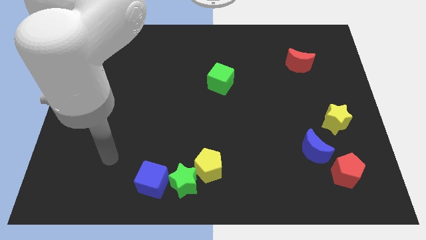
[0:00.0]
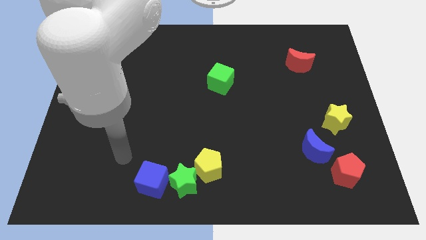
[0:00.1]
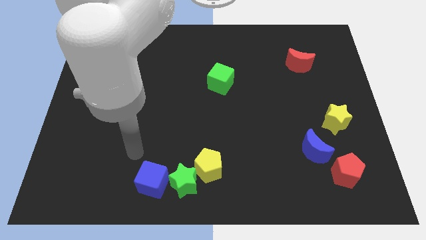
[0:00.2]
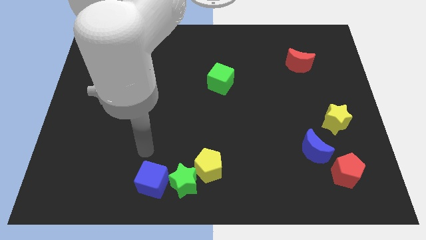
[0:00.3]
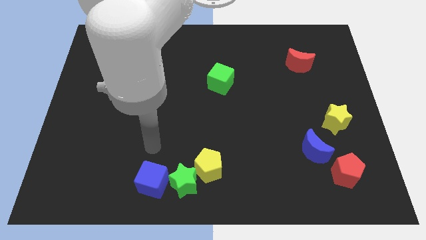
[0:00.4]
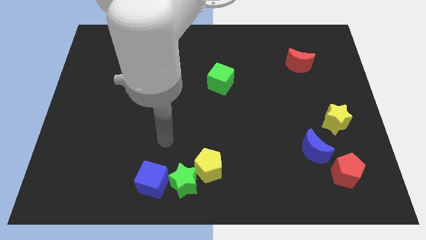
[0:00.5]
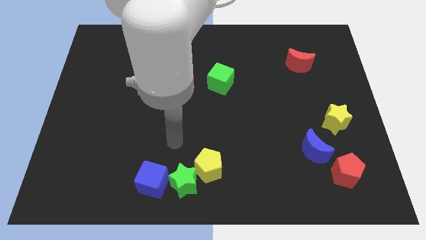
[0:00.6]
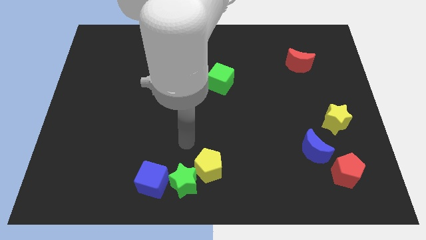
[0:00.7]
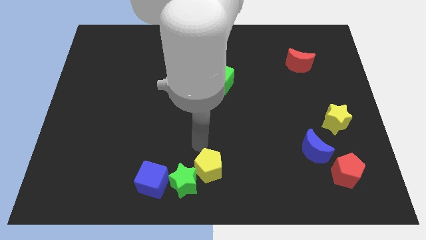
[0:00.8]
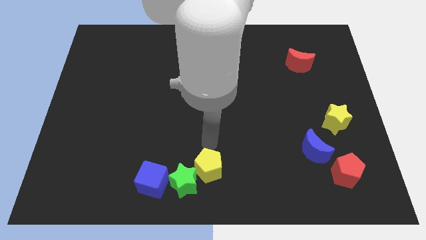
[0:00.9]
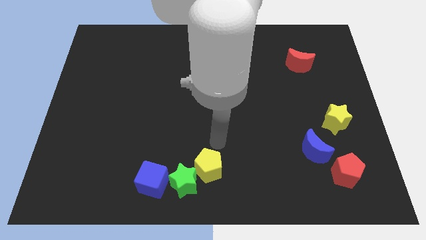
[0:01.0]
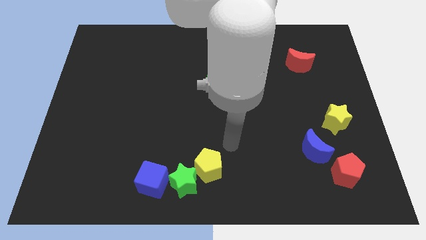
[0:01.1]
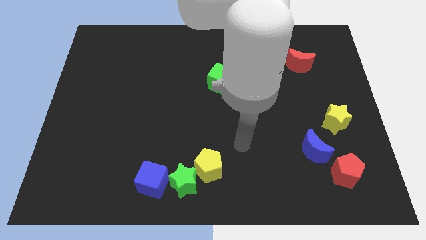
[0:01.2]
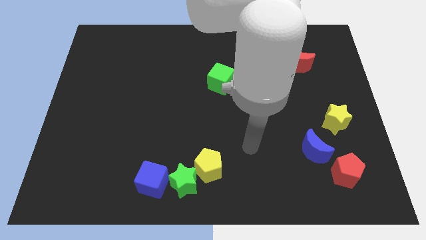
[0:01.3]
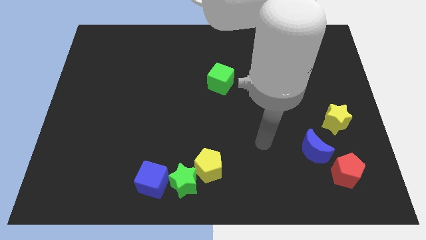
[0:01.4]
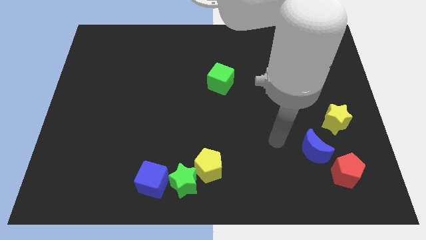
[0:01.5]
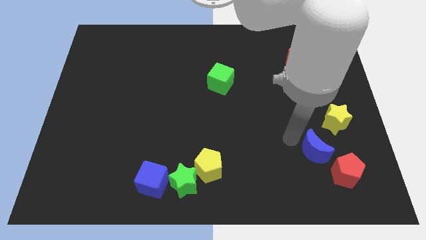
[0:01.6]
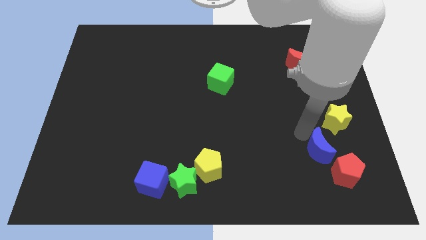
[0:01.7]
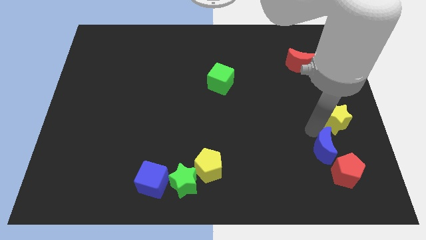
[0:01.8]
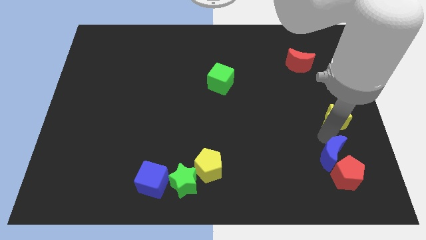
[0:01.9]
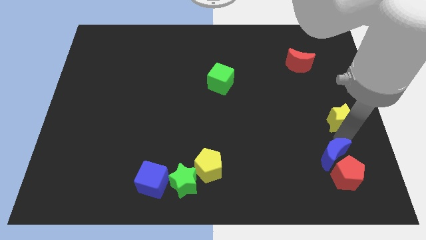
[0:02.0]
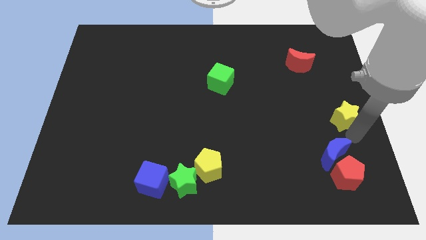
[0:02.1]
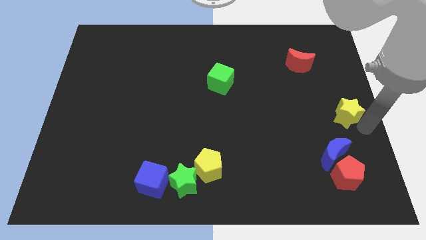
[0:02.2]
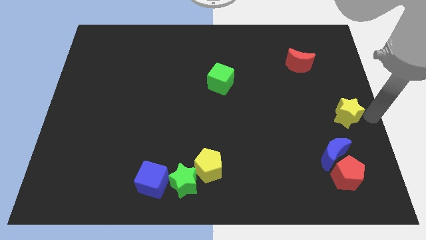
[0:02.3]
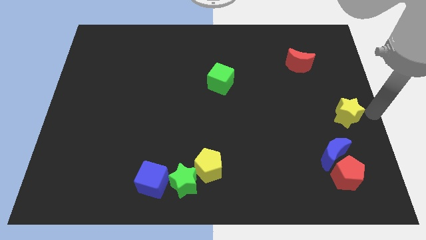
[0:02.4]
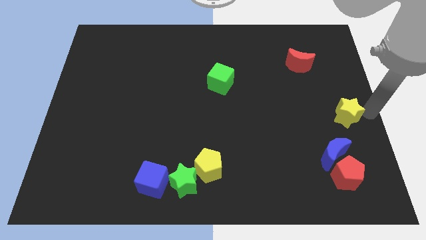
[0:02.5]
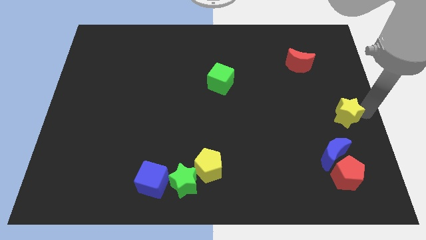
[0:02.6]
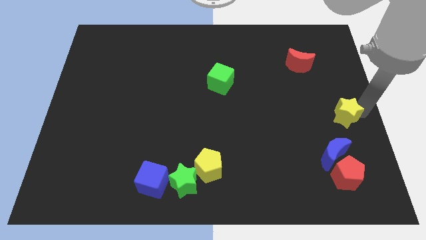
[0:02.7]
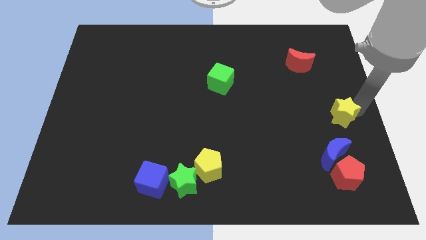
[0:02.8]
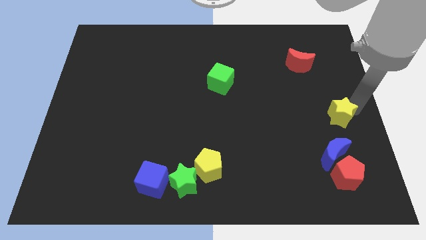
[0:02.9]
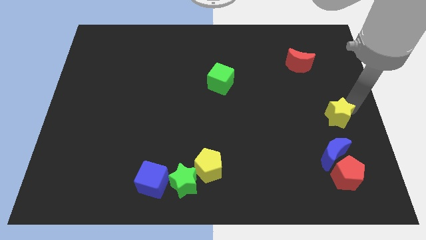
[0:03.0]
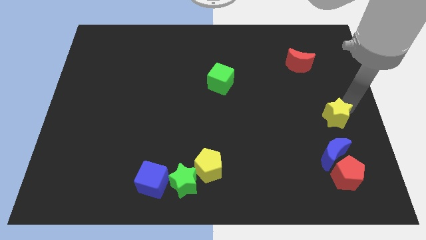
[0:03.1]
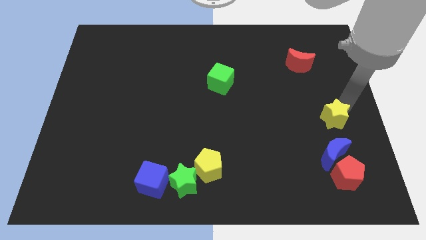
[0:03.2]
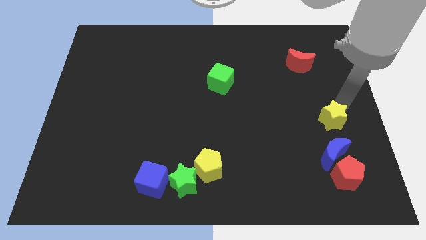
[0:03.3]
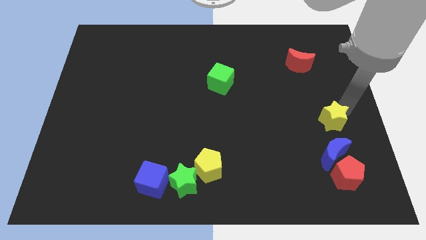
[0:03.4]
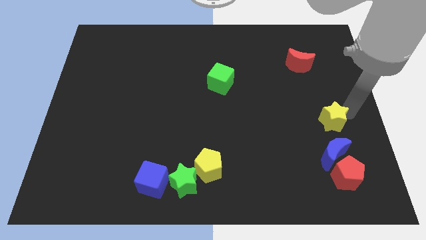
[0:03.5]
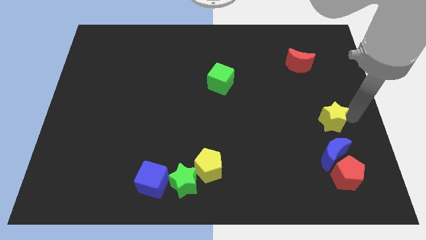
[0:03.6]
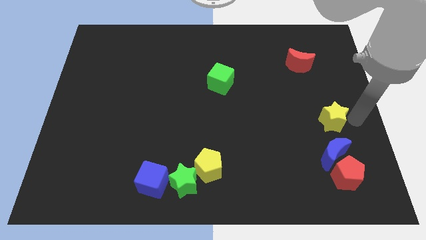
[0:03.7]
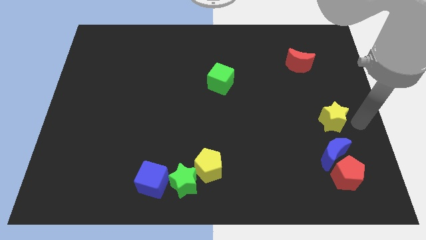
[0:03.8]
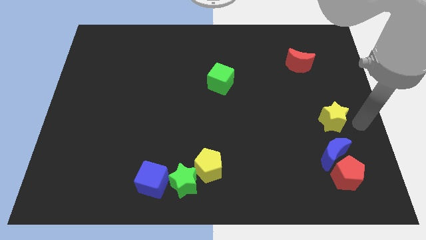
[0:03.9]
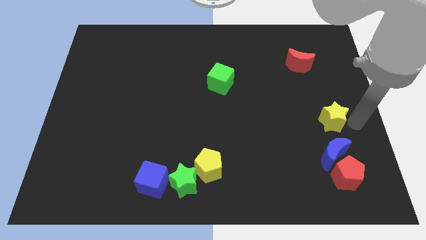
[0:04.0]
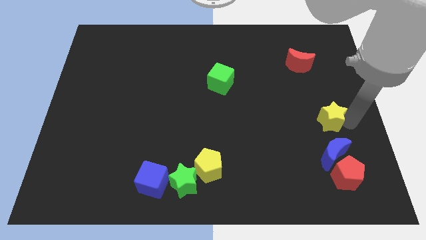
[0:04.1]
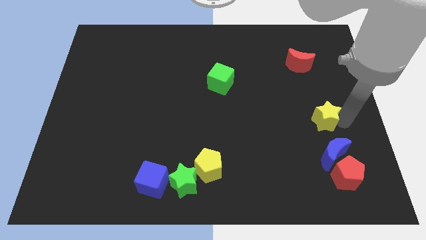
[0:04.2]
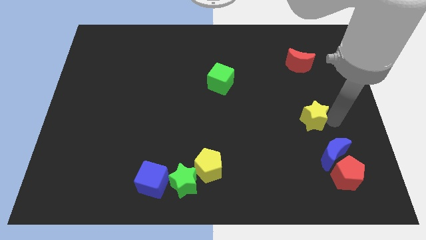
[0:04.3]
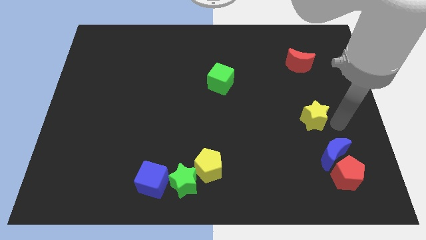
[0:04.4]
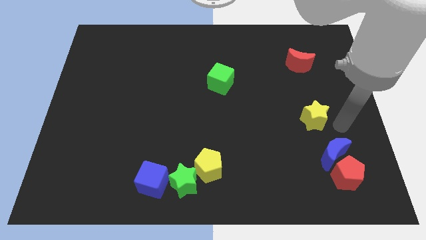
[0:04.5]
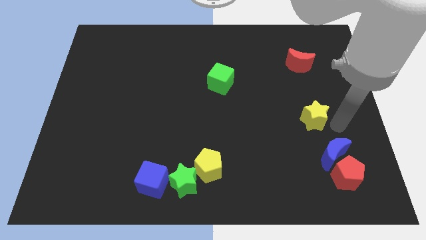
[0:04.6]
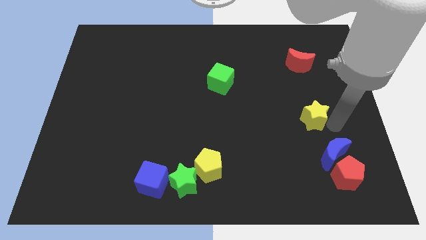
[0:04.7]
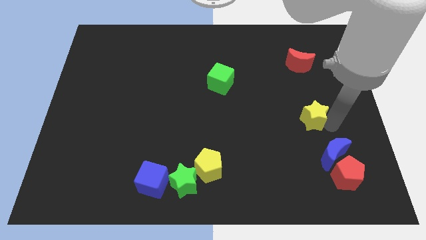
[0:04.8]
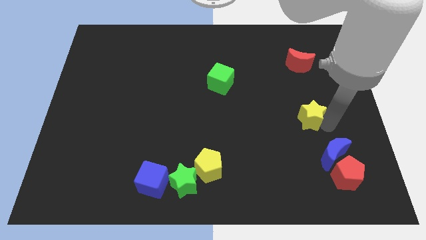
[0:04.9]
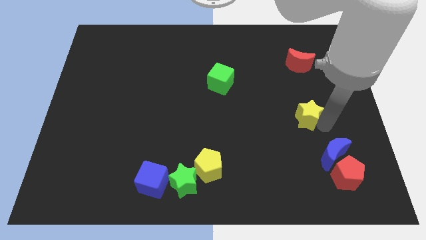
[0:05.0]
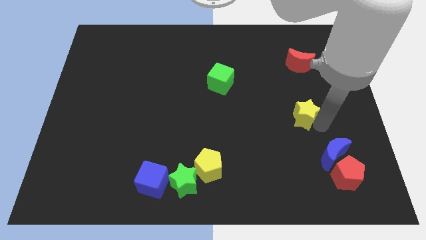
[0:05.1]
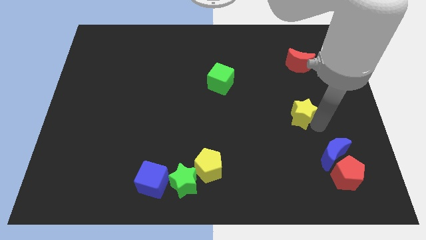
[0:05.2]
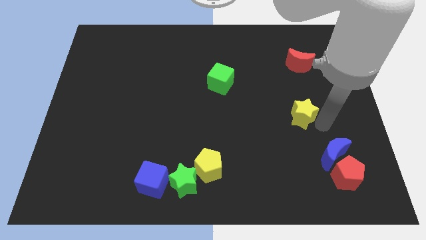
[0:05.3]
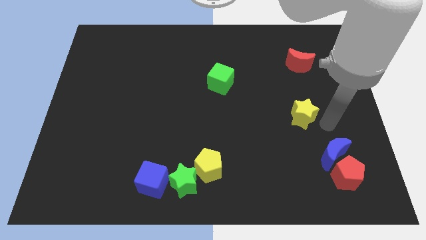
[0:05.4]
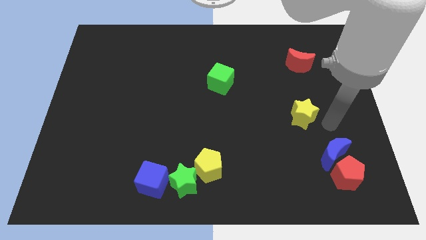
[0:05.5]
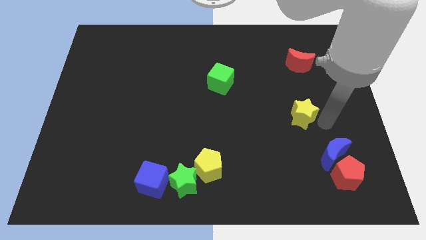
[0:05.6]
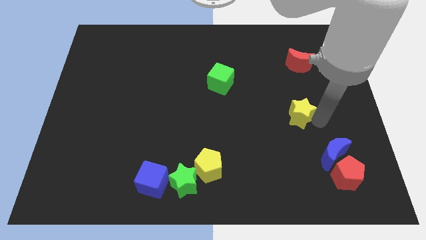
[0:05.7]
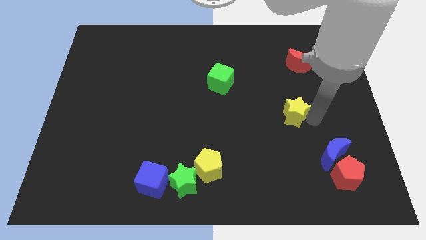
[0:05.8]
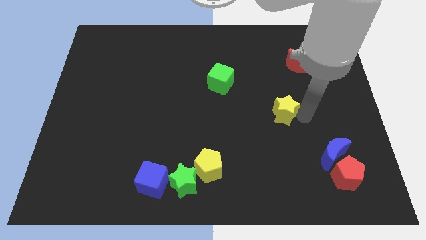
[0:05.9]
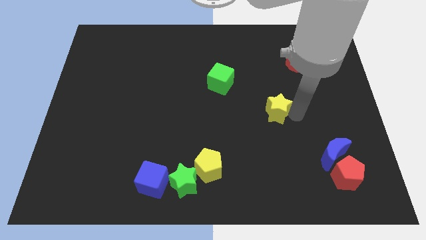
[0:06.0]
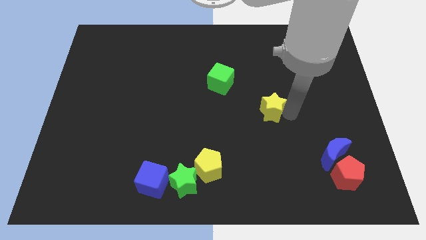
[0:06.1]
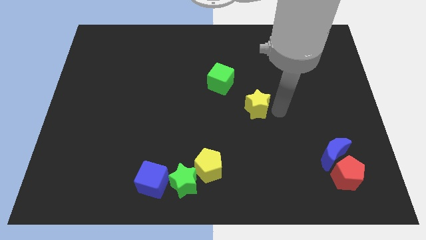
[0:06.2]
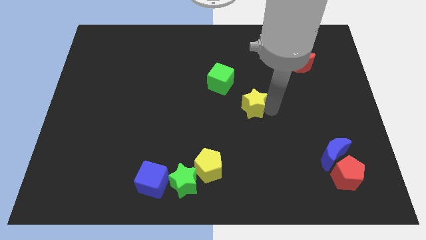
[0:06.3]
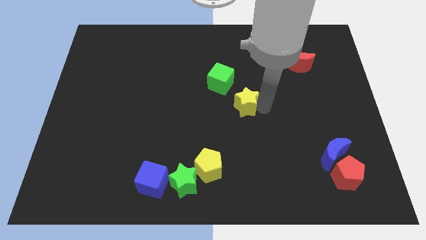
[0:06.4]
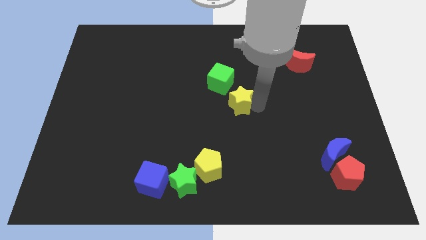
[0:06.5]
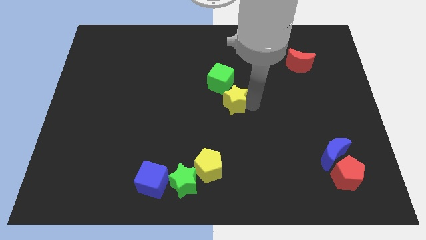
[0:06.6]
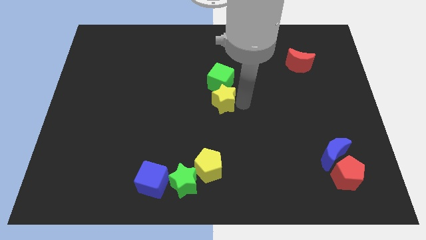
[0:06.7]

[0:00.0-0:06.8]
move the yellow star to the bottom left of the green cube
